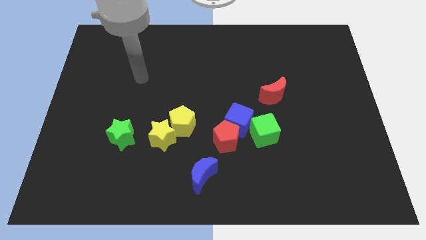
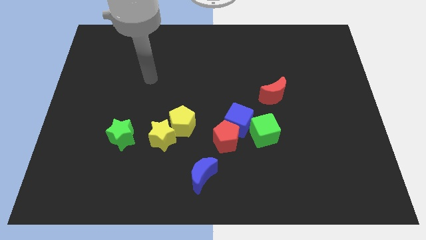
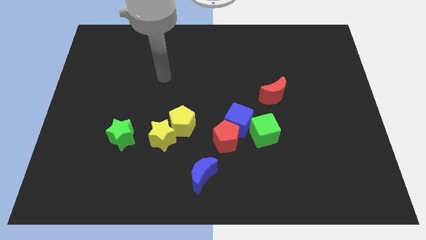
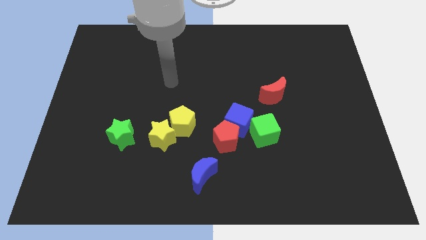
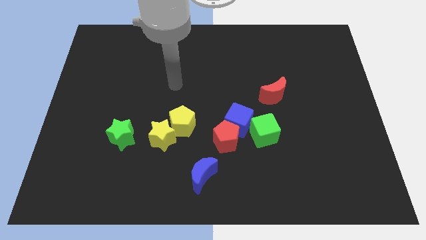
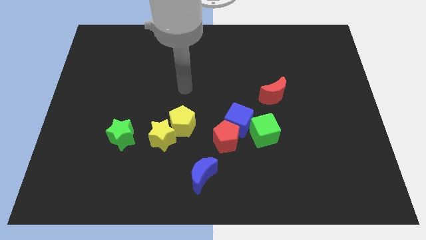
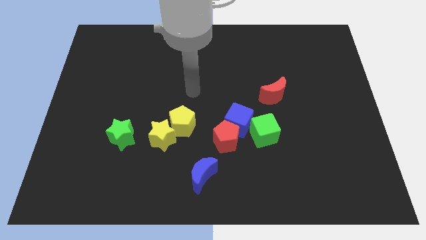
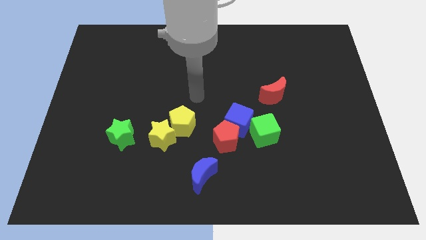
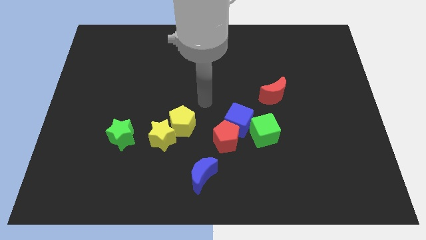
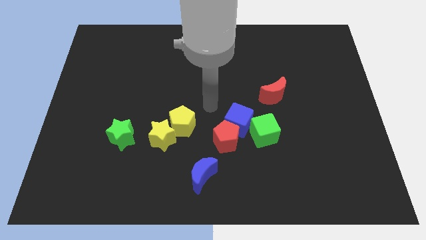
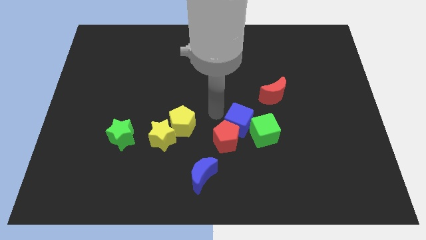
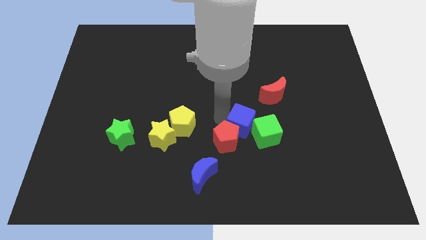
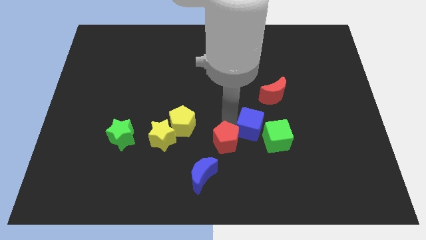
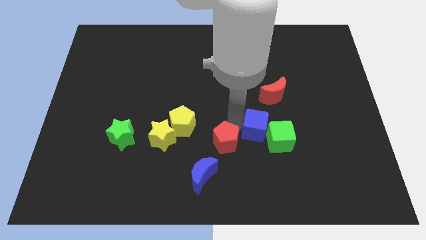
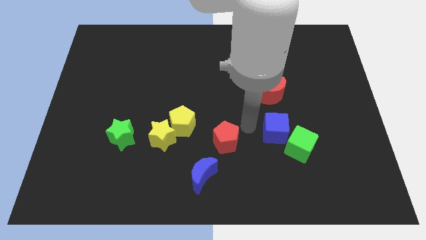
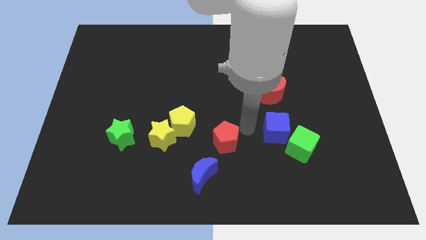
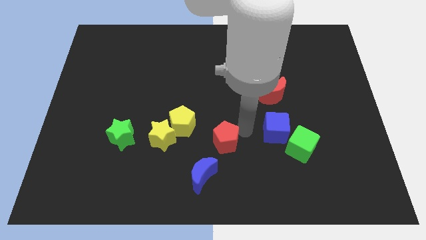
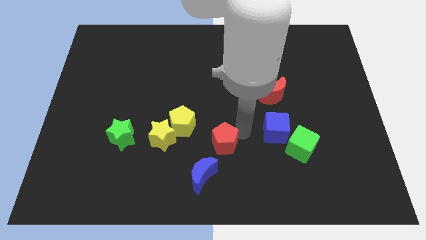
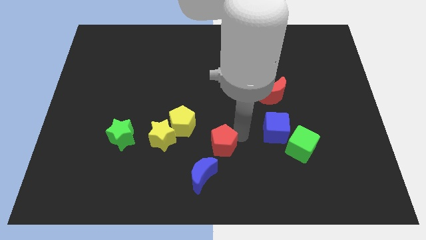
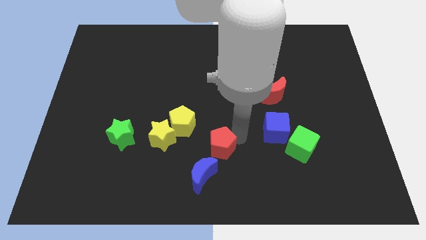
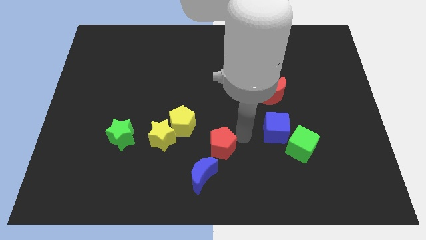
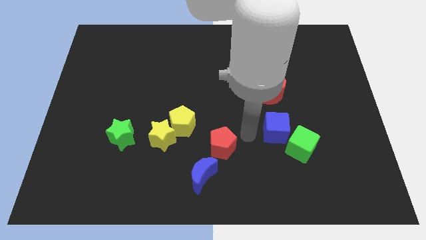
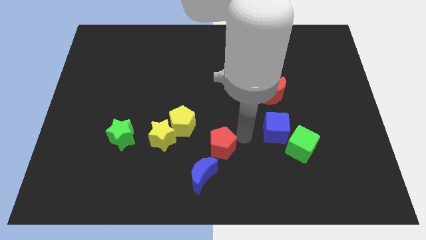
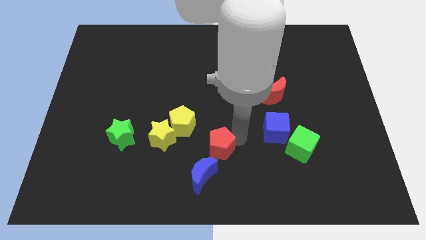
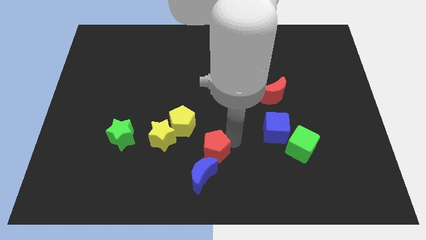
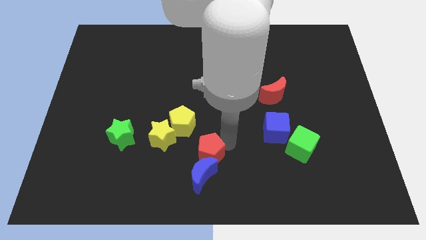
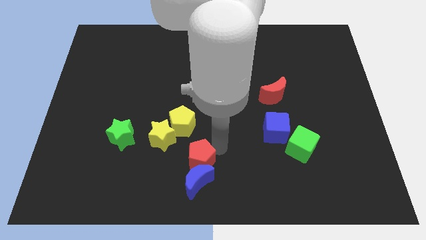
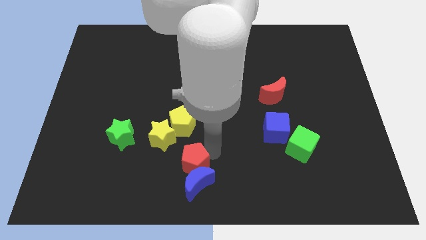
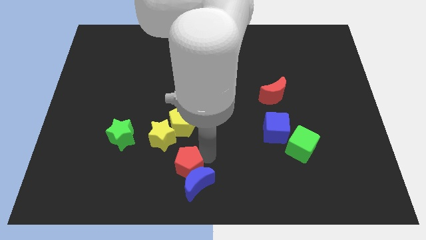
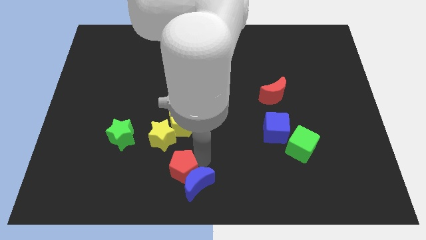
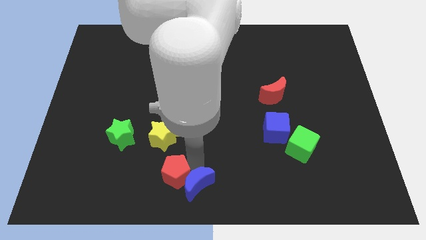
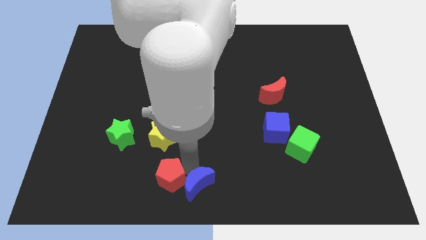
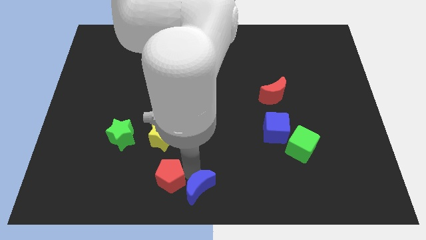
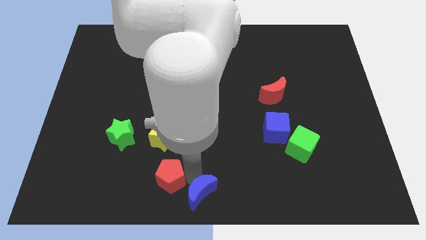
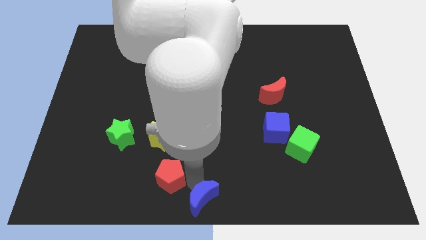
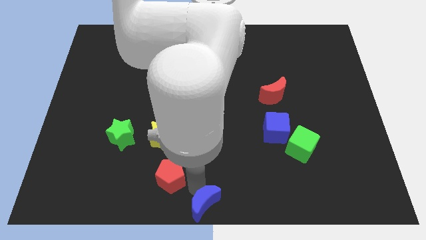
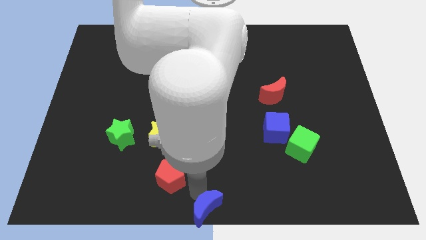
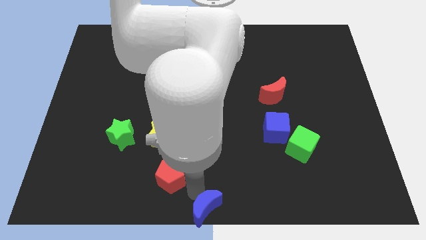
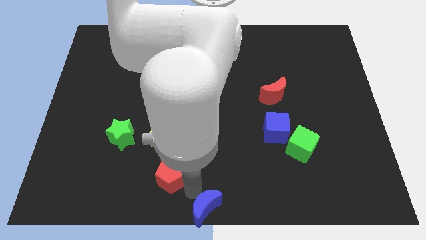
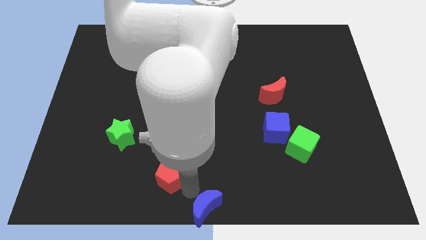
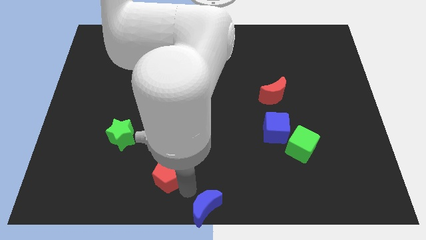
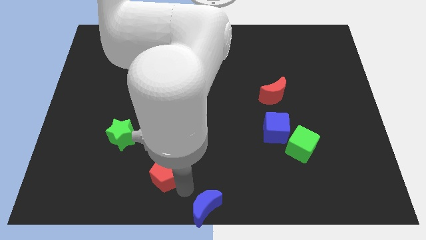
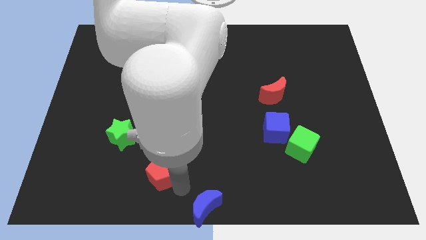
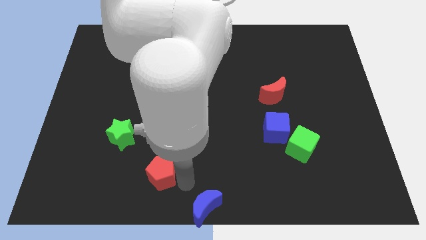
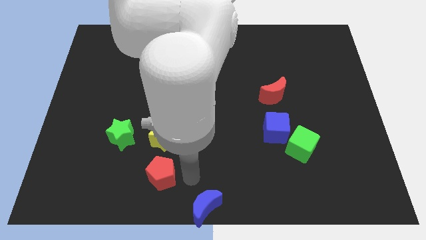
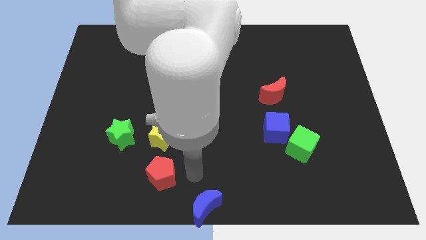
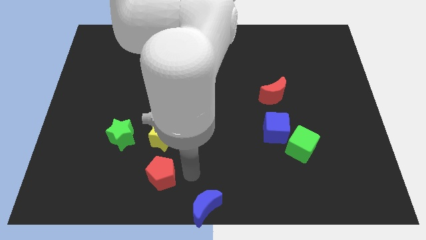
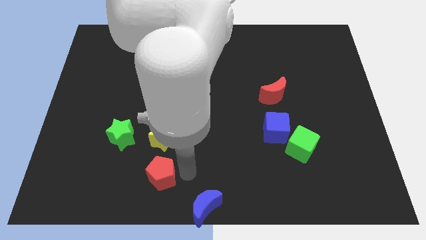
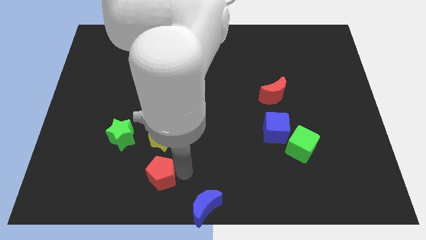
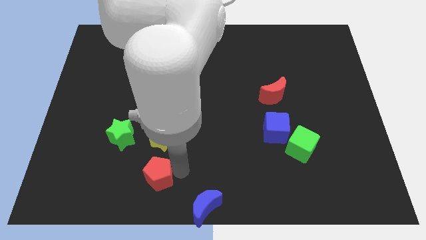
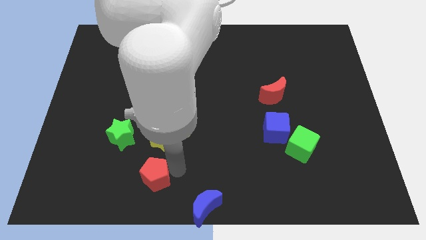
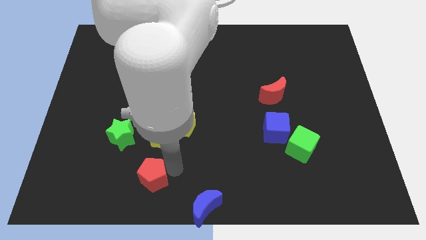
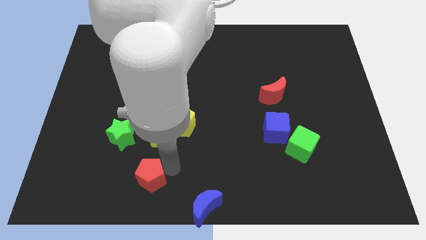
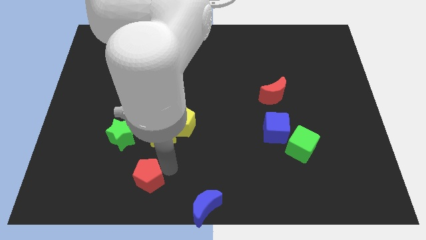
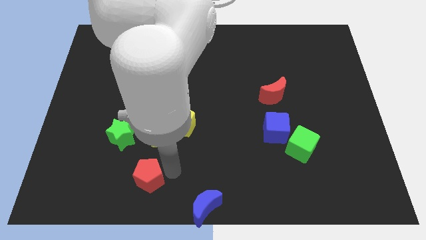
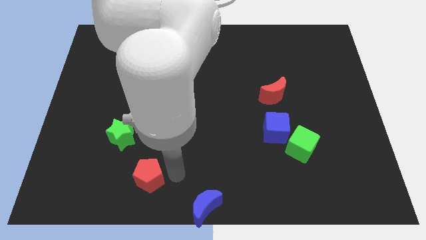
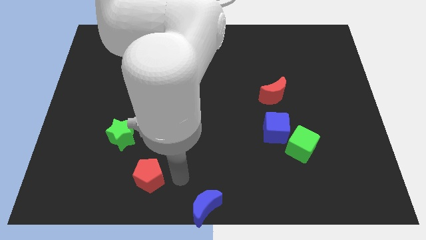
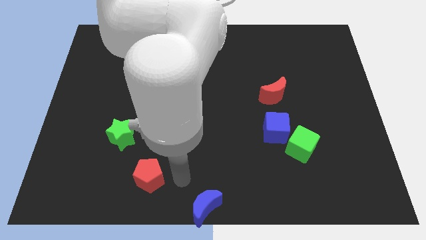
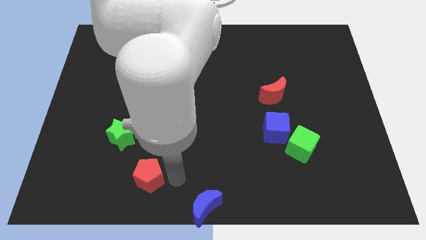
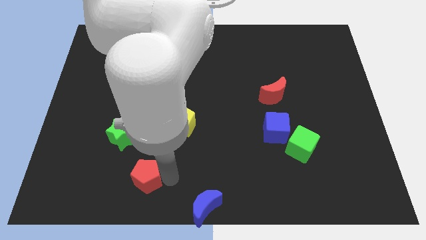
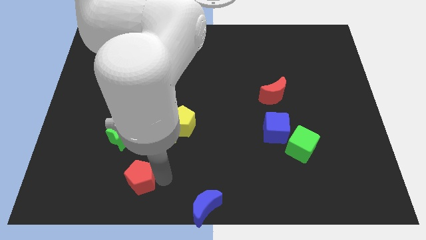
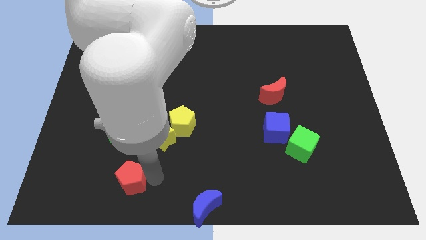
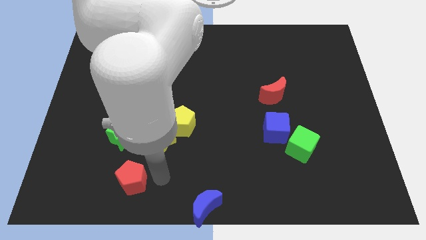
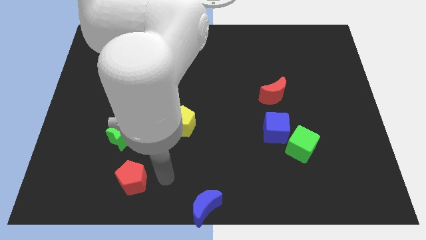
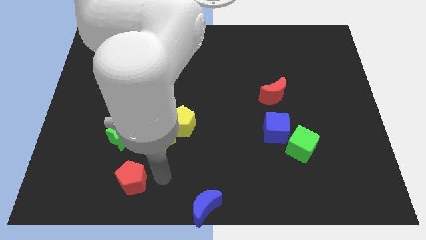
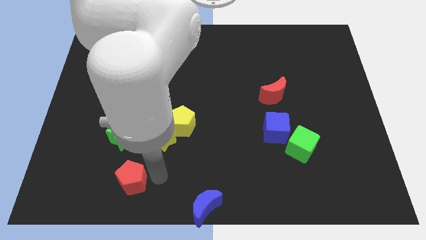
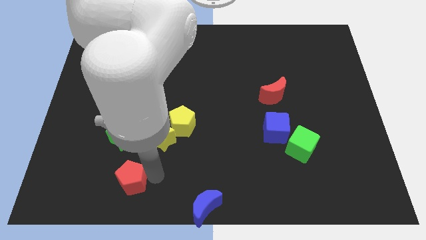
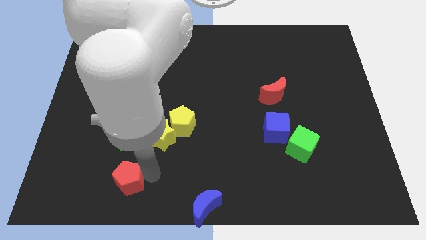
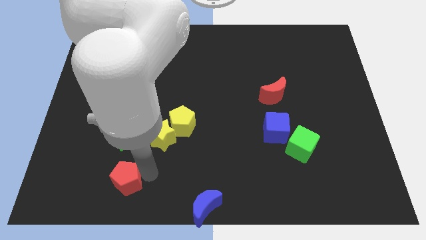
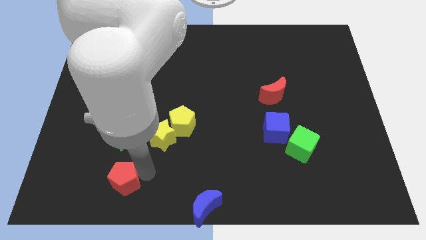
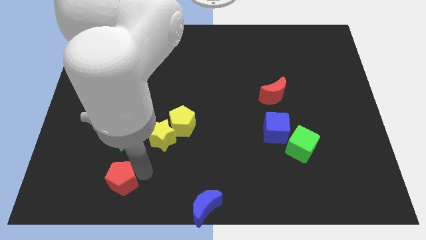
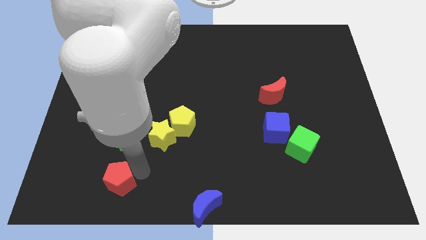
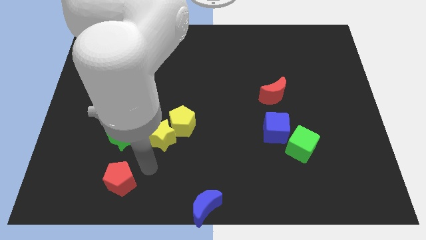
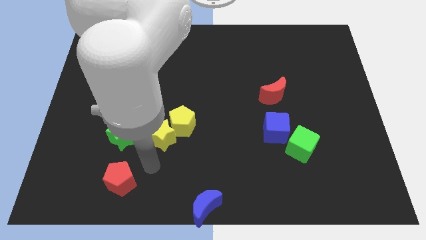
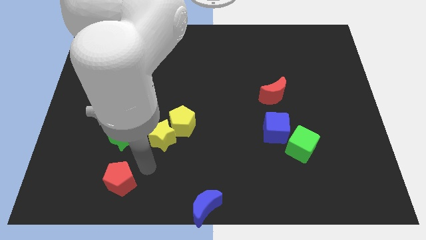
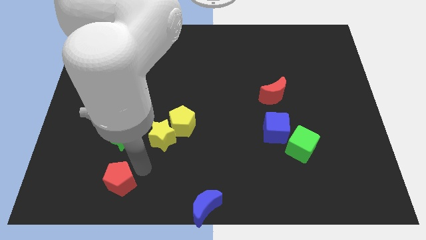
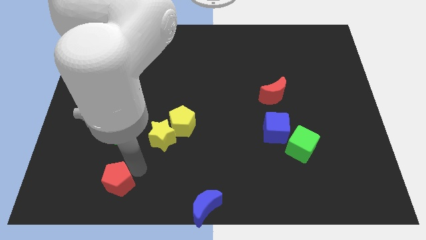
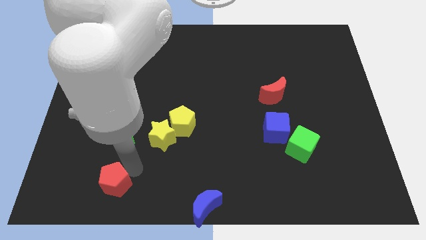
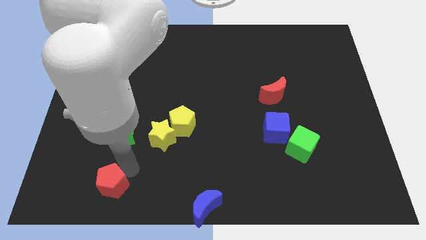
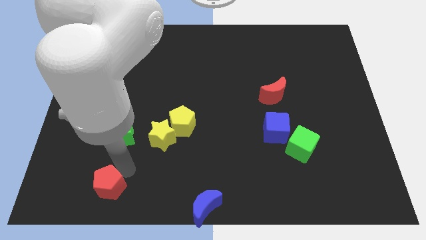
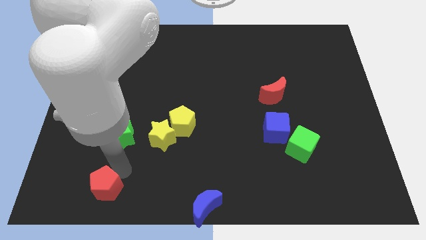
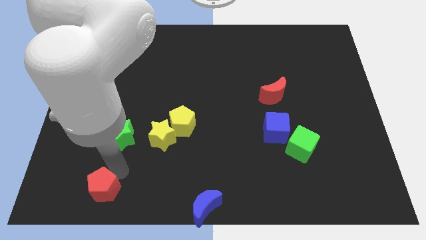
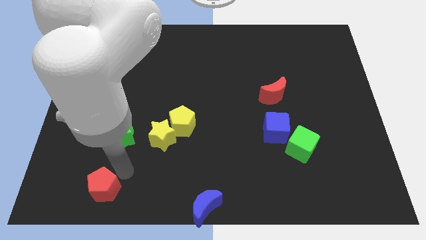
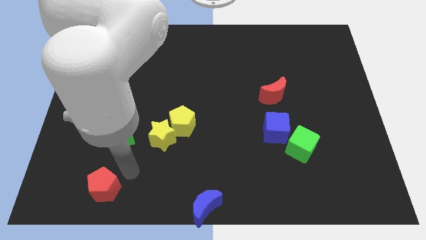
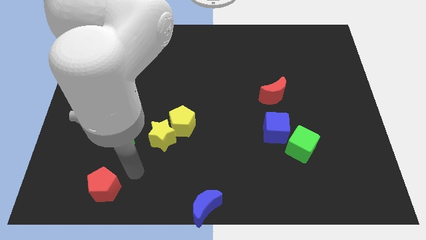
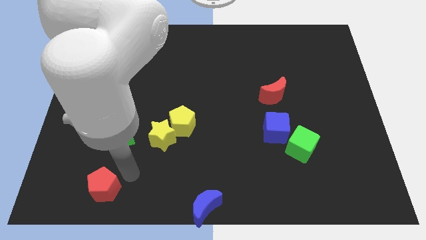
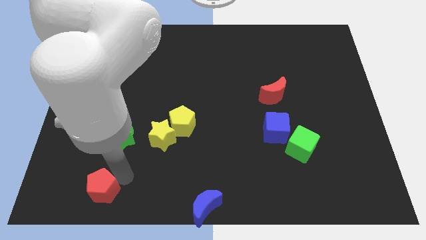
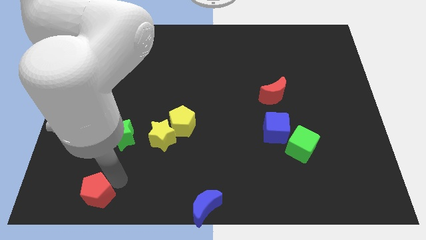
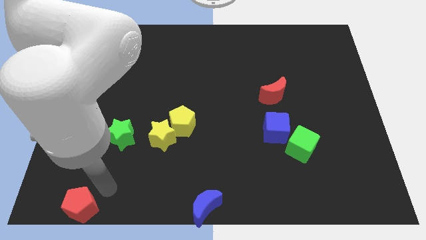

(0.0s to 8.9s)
put the red pentagon to the bottom left
